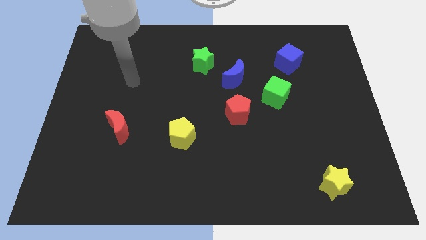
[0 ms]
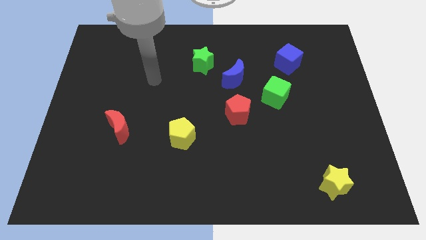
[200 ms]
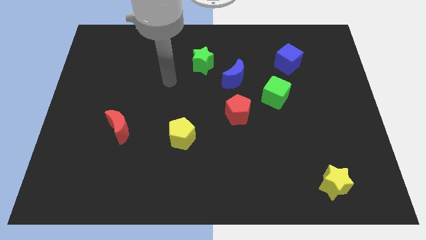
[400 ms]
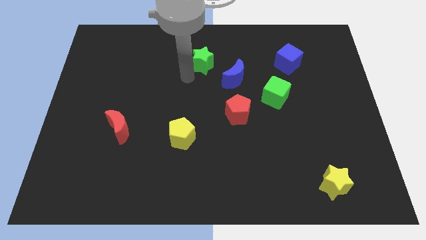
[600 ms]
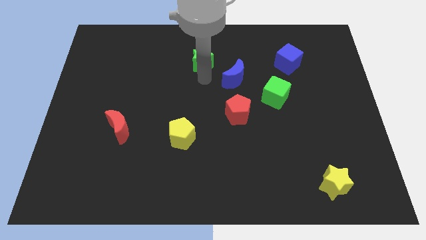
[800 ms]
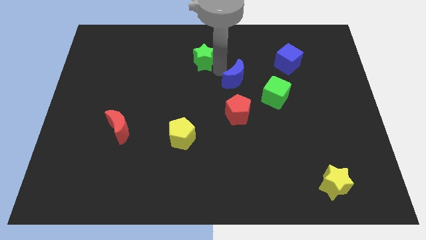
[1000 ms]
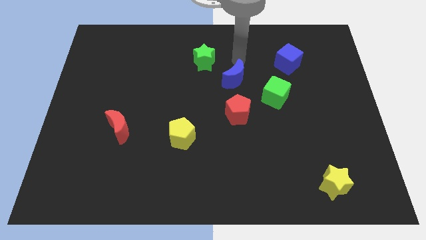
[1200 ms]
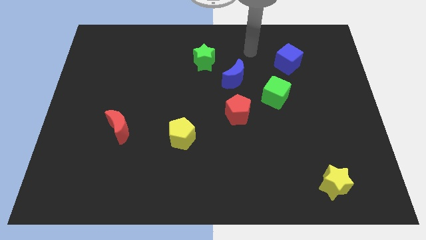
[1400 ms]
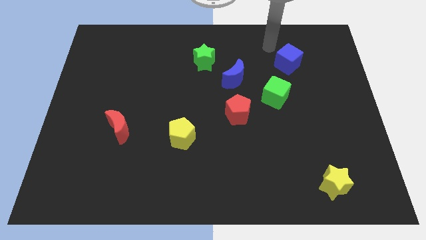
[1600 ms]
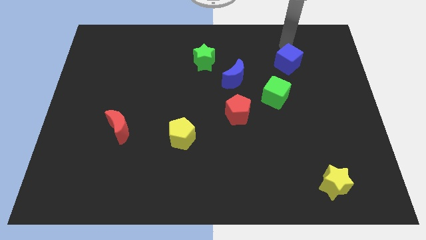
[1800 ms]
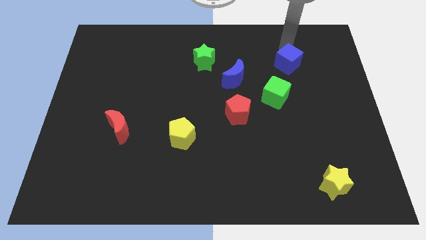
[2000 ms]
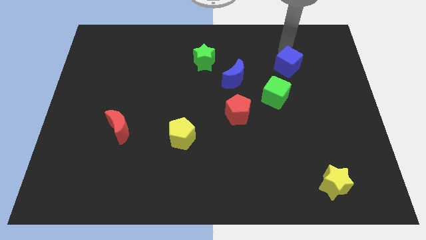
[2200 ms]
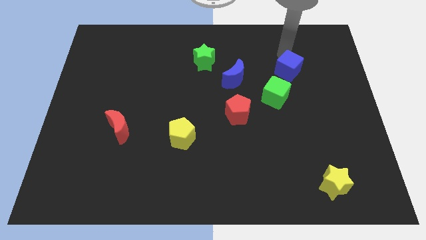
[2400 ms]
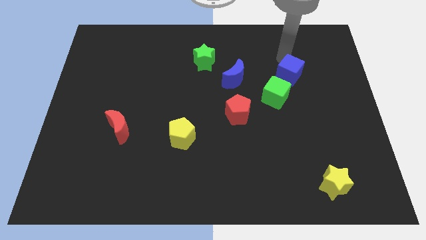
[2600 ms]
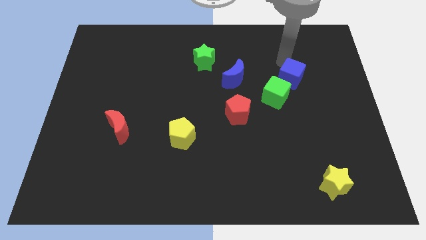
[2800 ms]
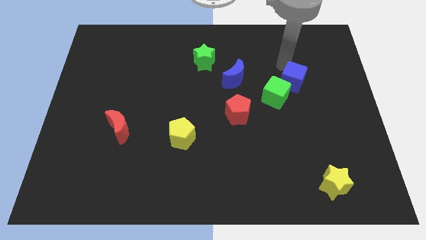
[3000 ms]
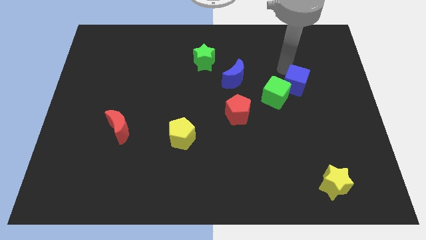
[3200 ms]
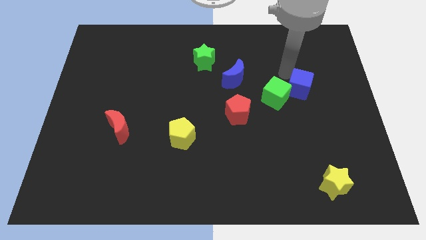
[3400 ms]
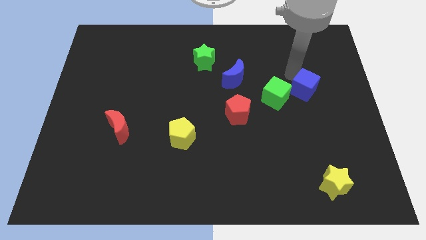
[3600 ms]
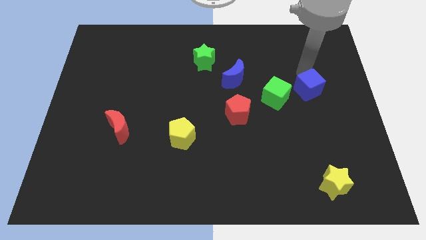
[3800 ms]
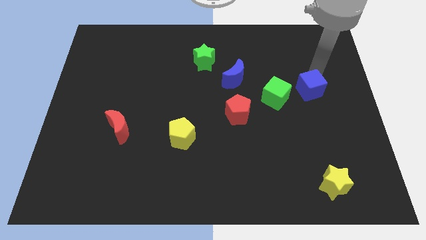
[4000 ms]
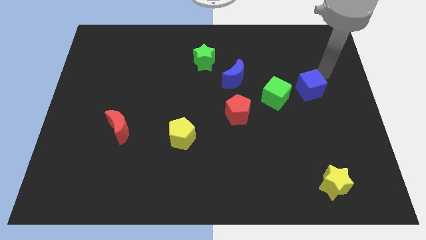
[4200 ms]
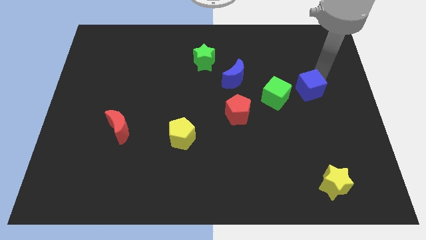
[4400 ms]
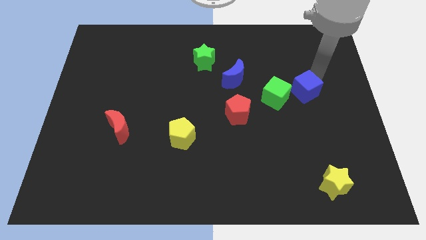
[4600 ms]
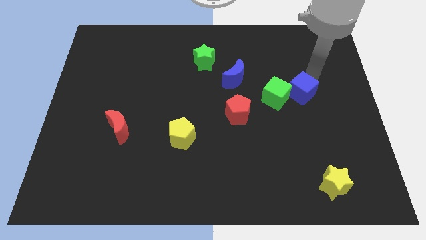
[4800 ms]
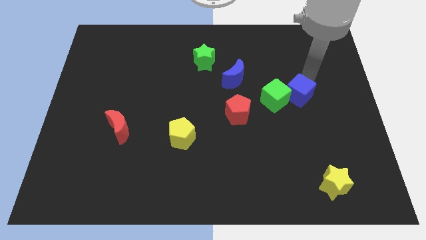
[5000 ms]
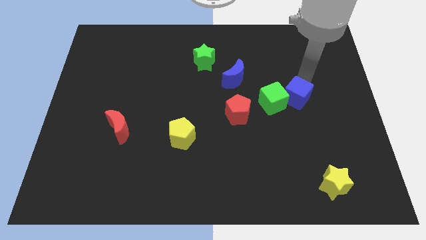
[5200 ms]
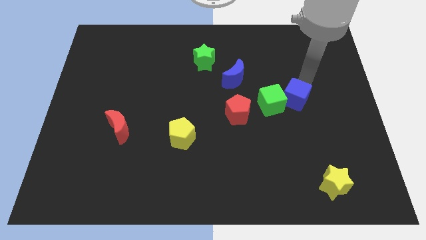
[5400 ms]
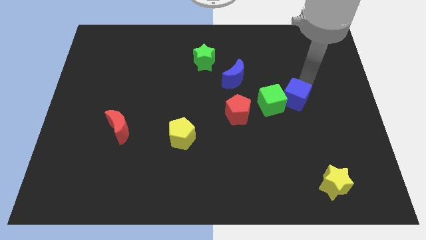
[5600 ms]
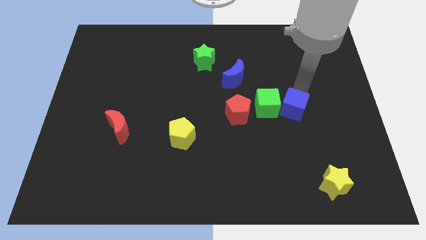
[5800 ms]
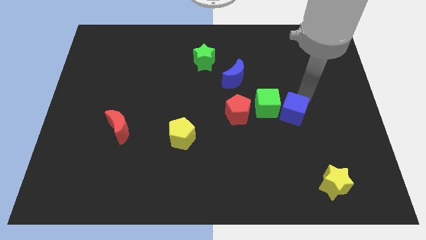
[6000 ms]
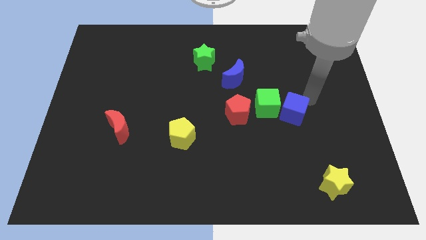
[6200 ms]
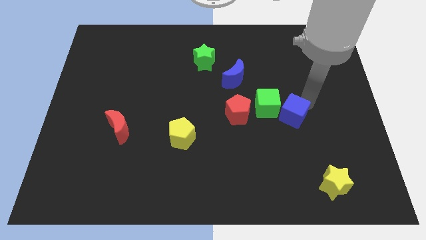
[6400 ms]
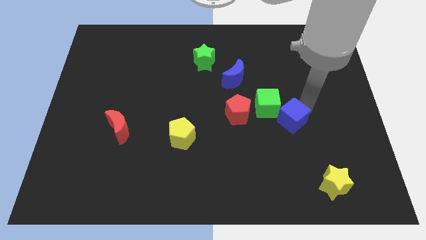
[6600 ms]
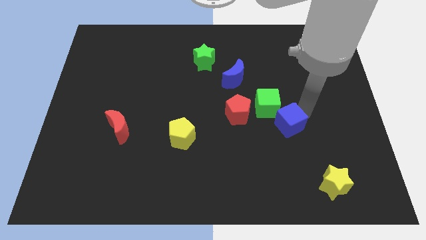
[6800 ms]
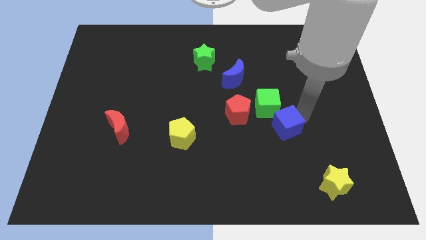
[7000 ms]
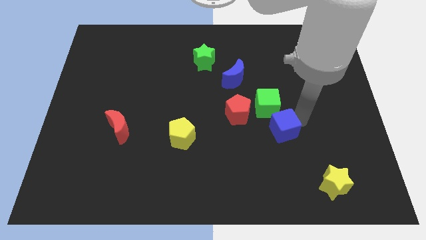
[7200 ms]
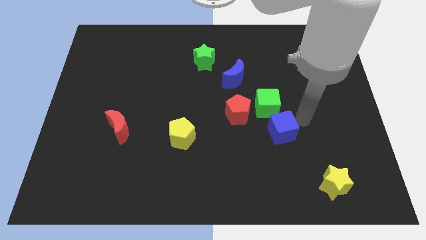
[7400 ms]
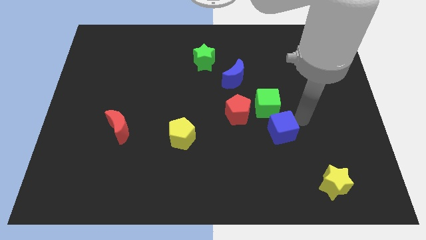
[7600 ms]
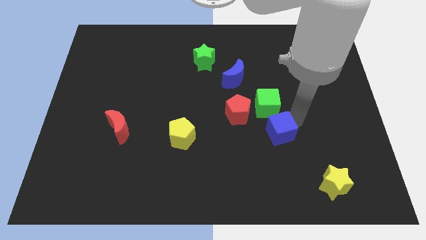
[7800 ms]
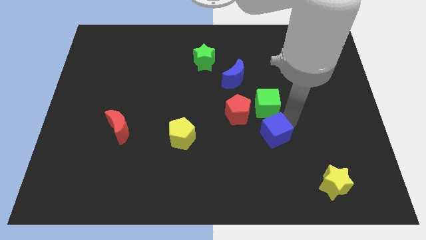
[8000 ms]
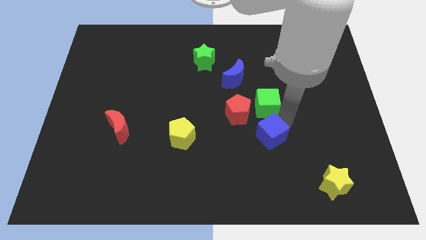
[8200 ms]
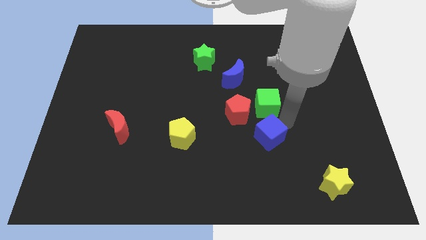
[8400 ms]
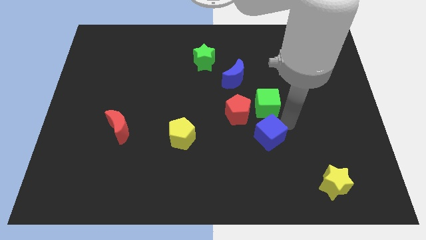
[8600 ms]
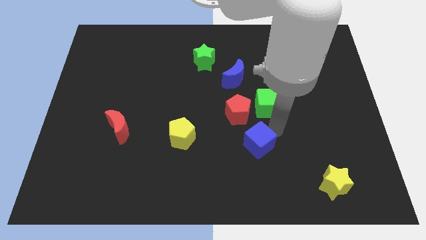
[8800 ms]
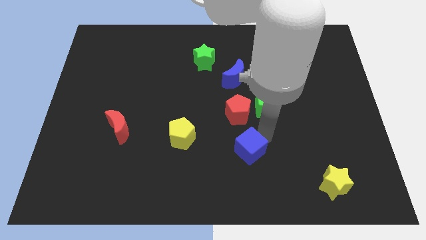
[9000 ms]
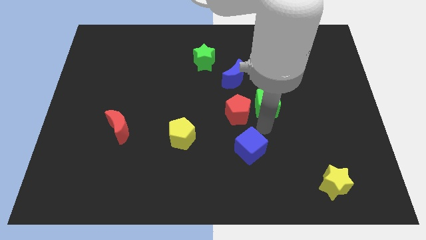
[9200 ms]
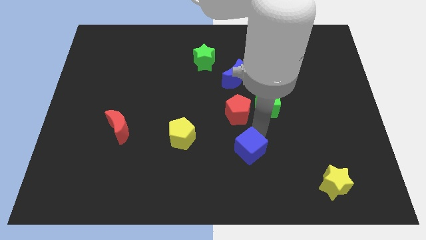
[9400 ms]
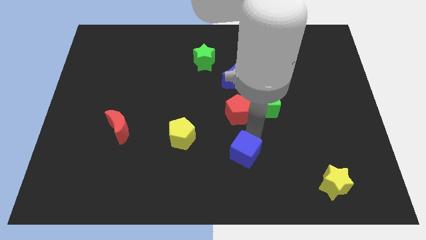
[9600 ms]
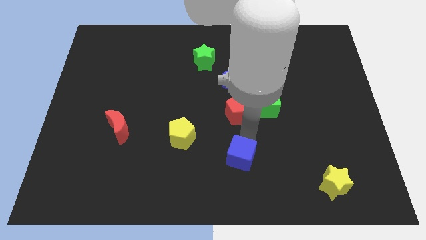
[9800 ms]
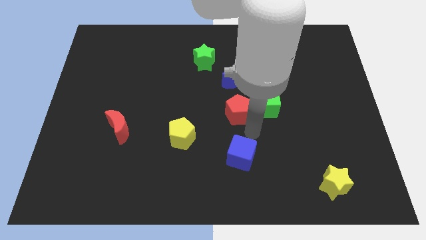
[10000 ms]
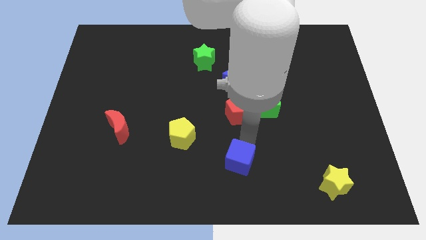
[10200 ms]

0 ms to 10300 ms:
push the blue cube to the bottom
